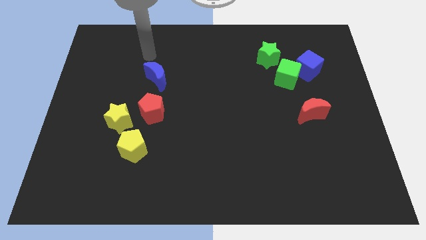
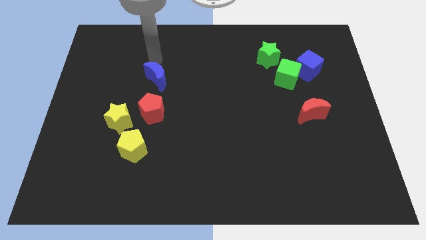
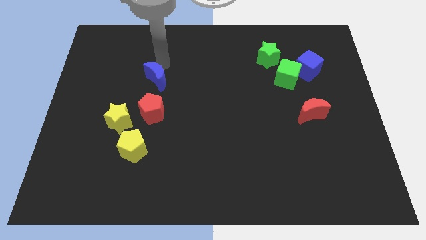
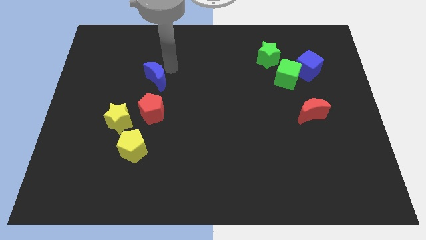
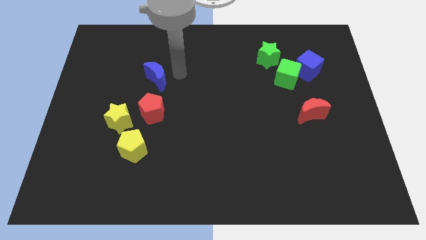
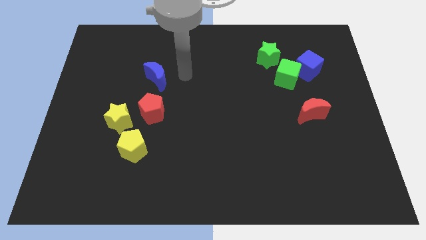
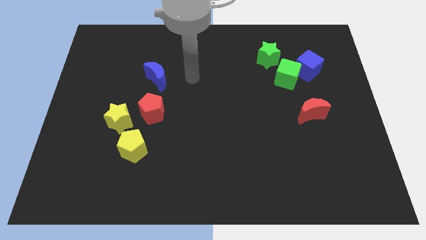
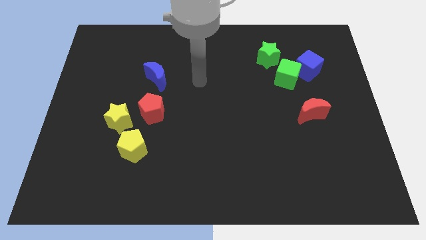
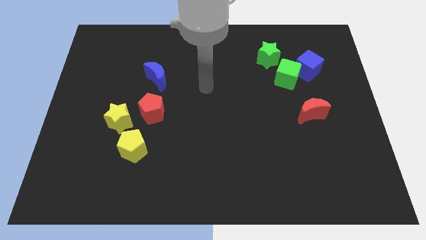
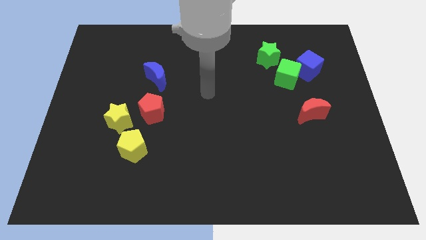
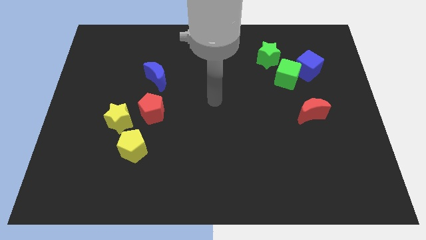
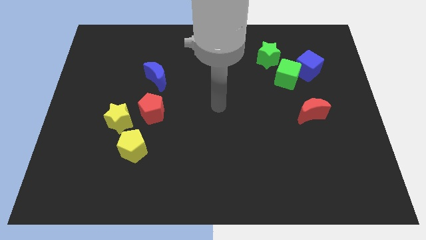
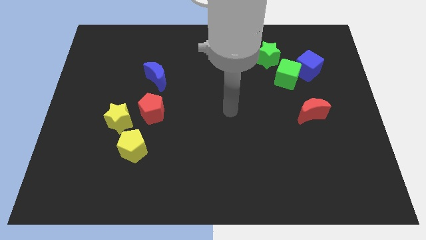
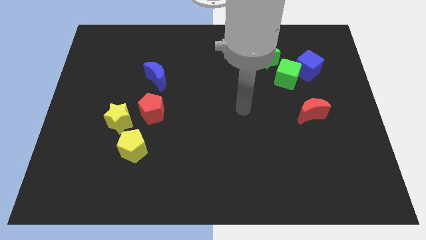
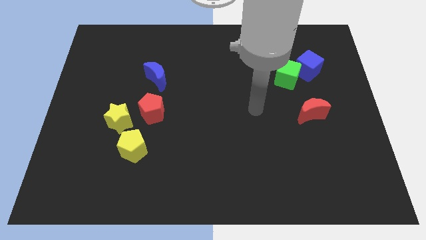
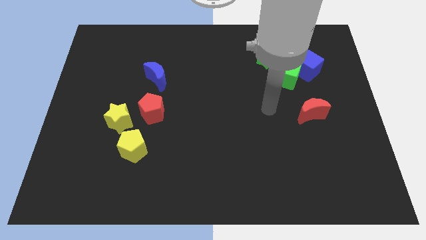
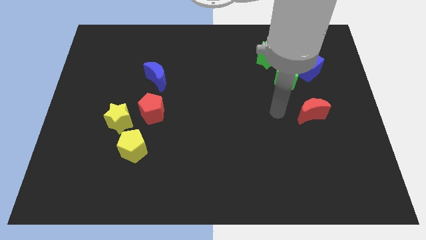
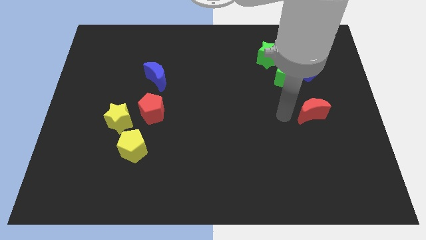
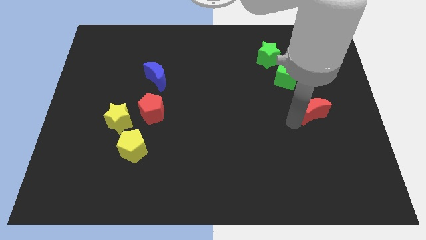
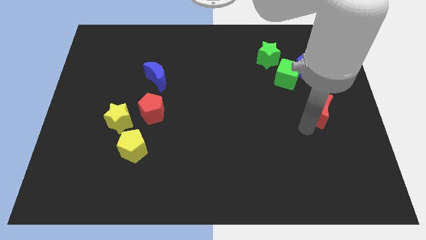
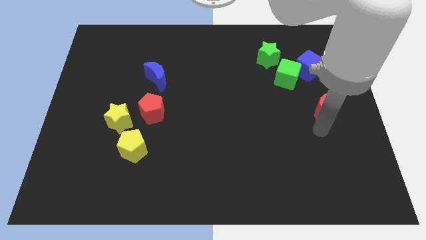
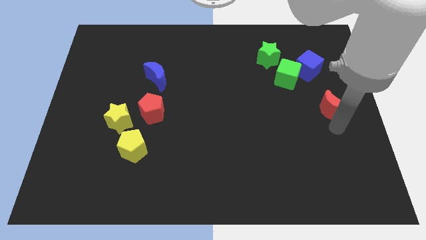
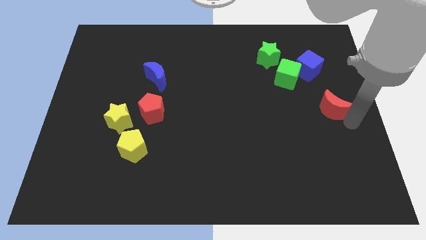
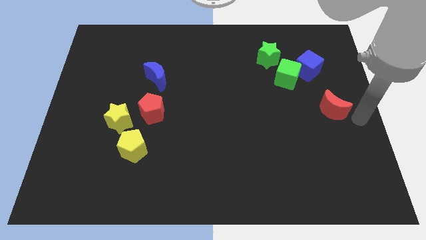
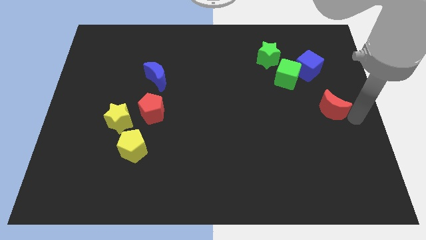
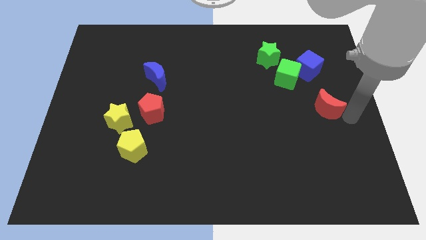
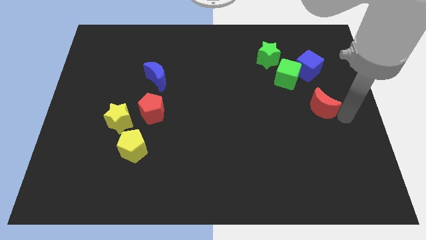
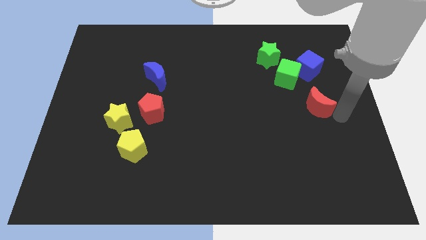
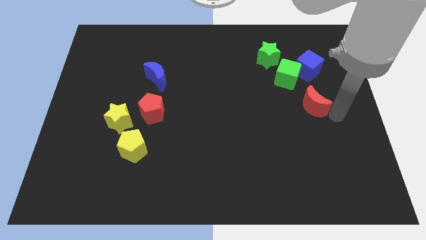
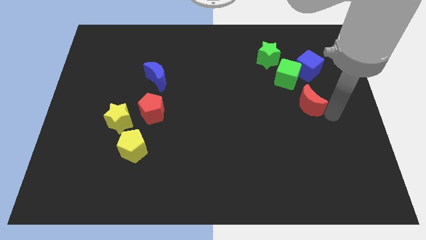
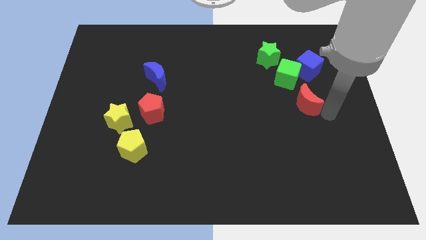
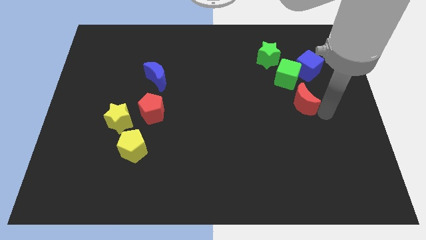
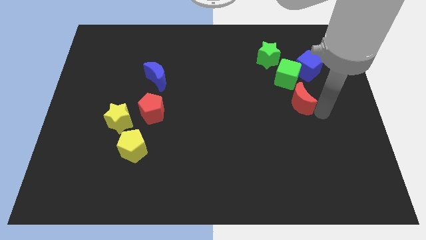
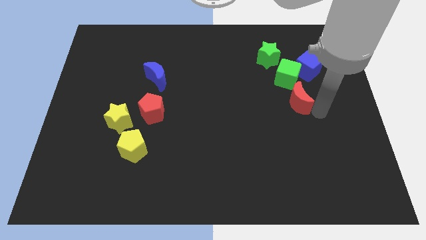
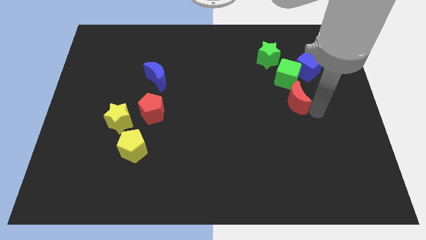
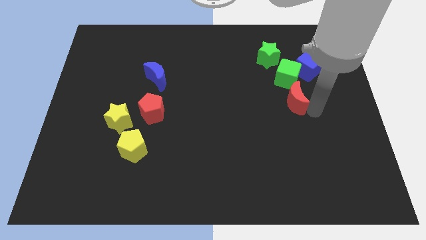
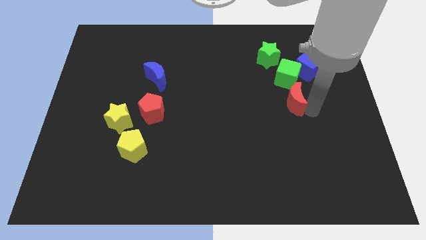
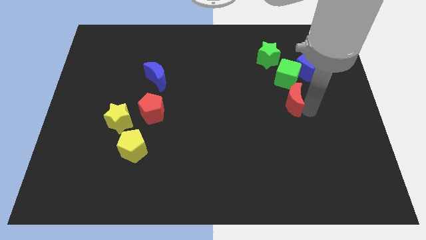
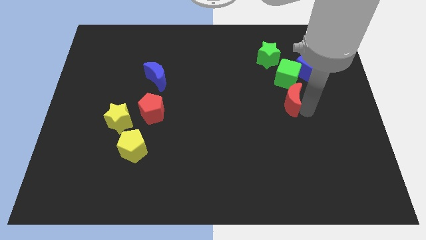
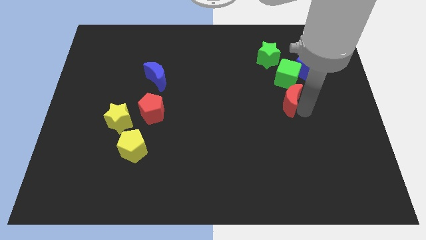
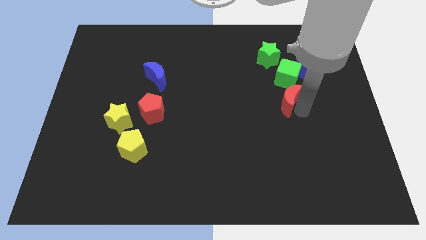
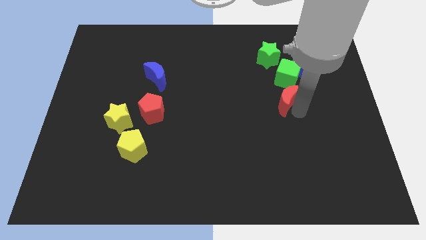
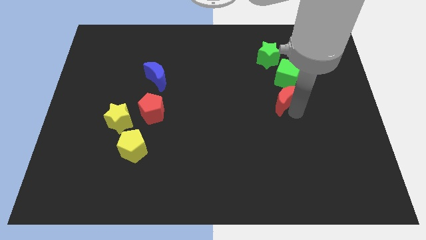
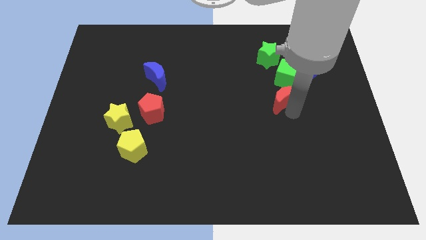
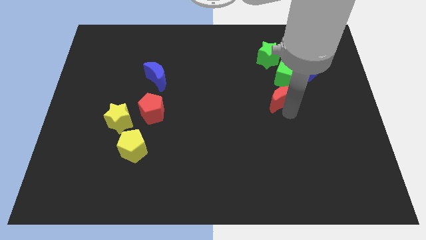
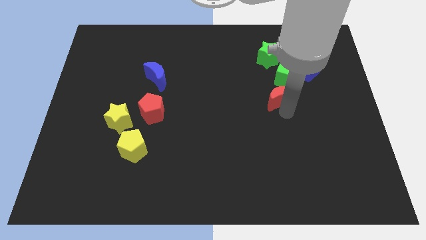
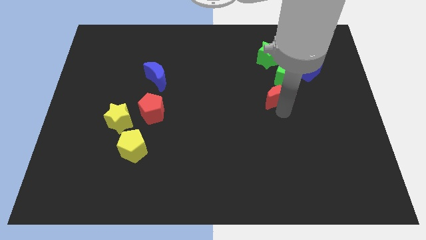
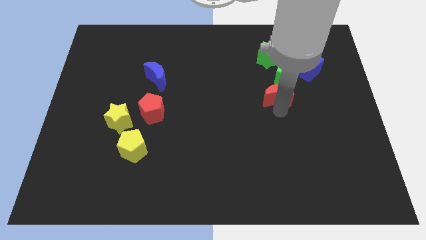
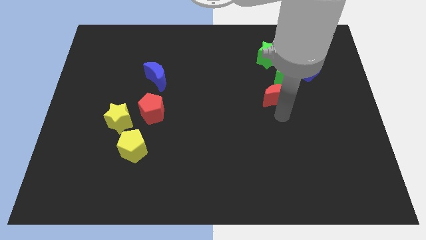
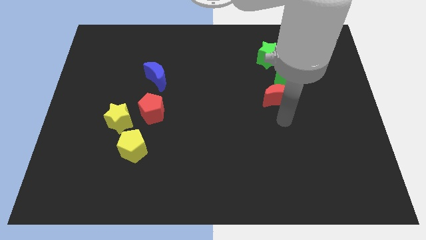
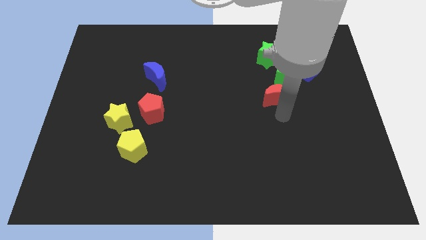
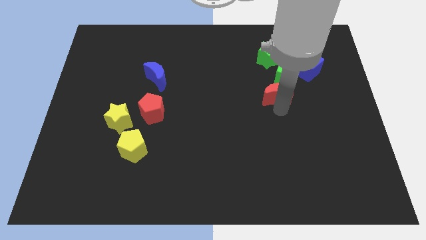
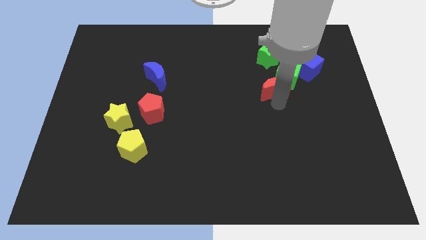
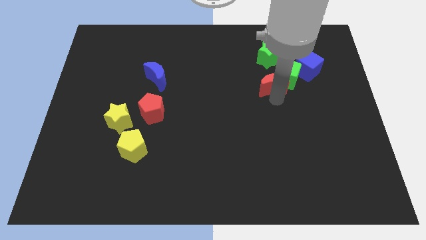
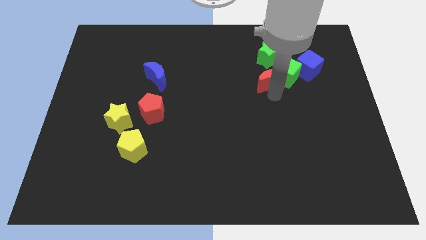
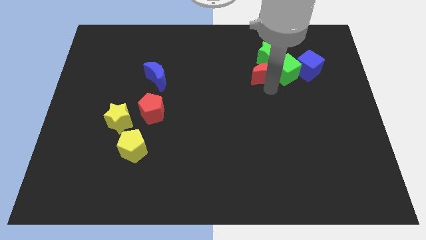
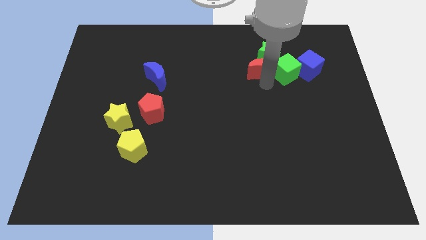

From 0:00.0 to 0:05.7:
move the red moon towards the green star

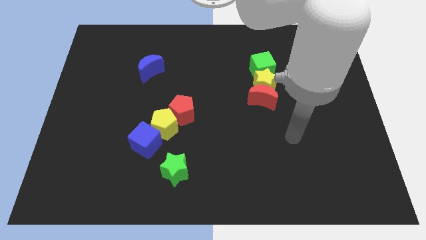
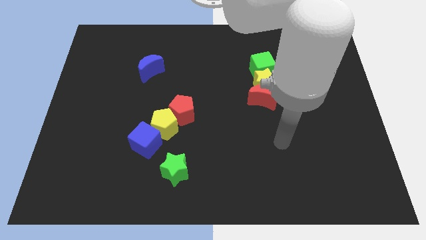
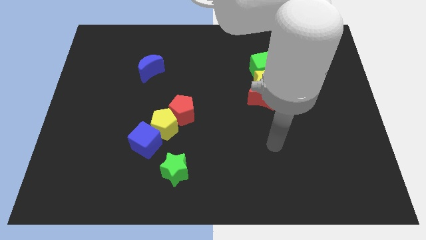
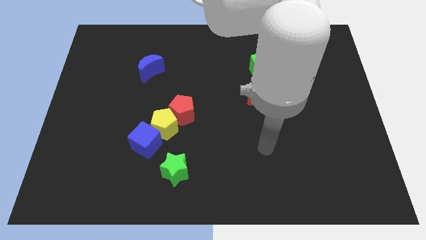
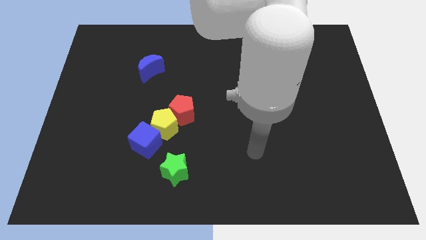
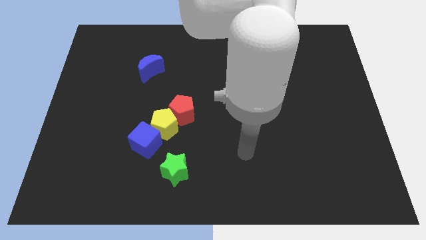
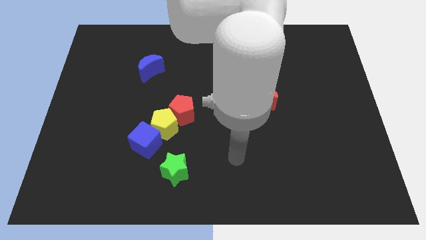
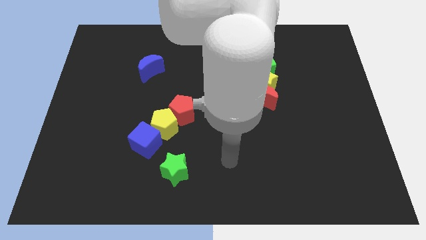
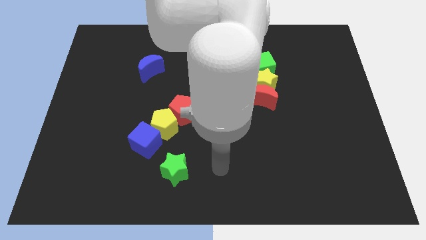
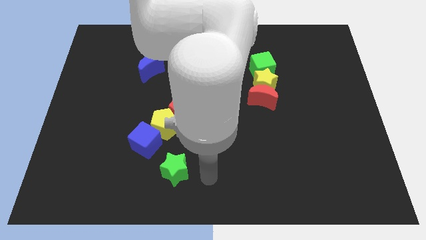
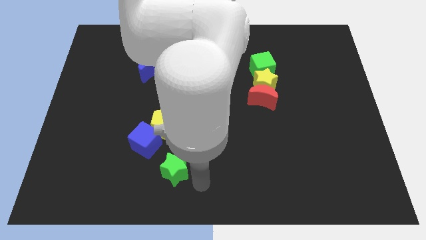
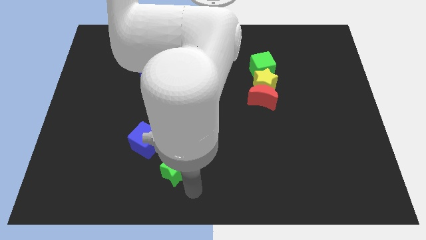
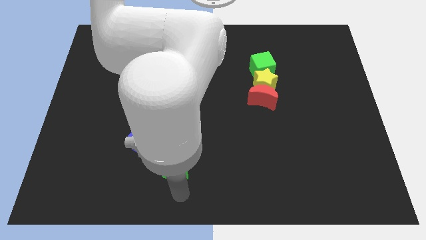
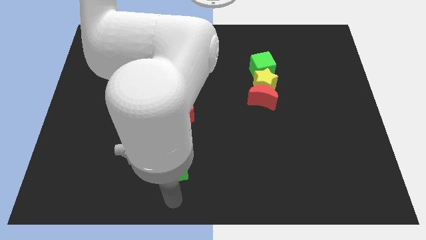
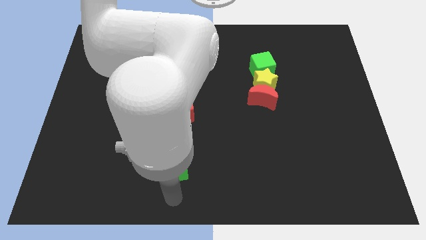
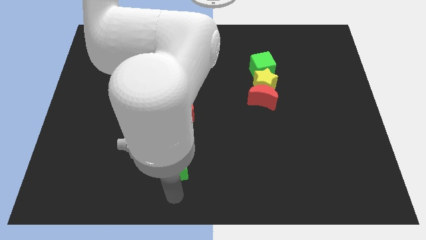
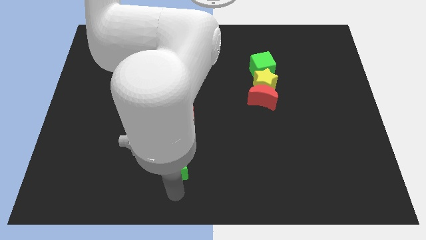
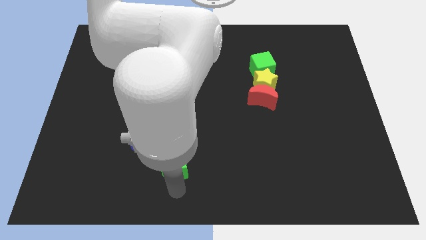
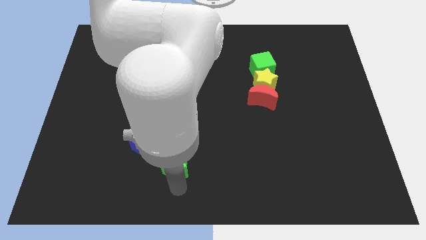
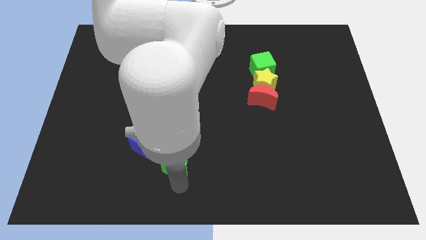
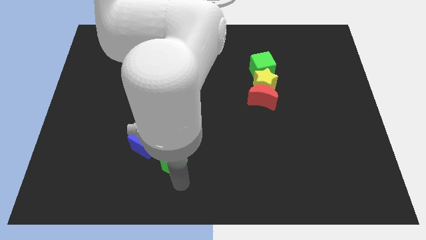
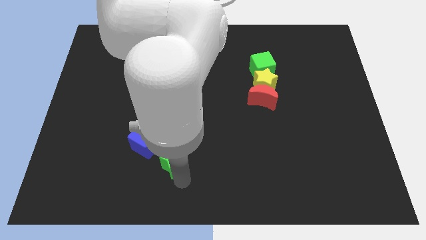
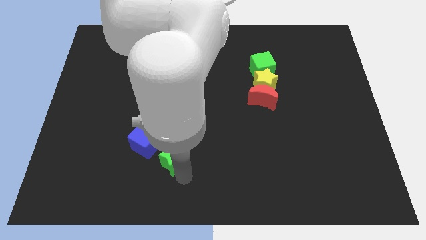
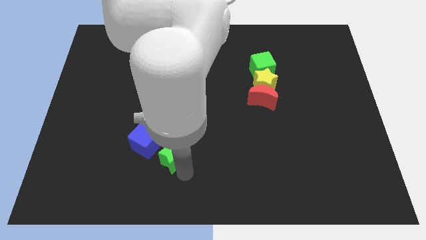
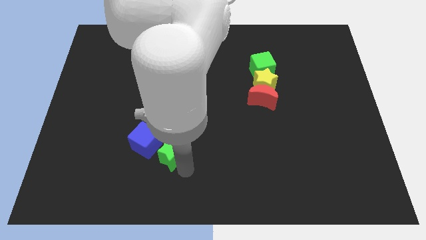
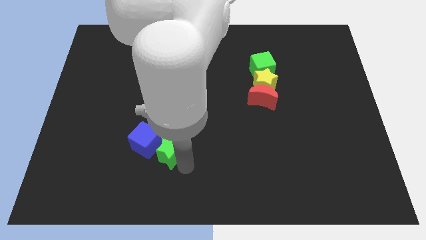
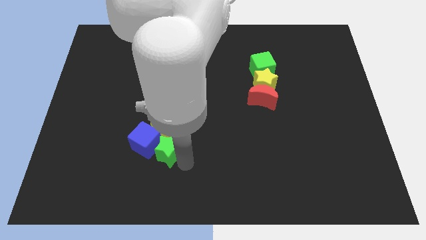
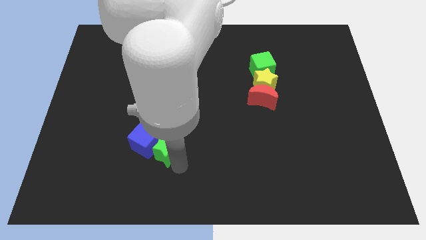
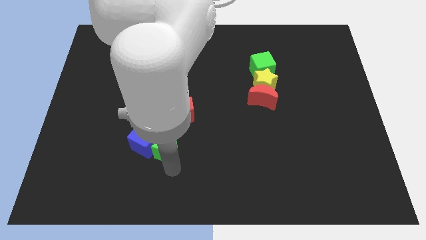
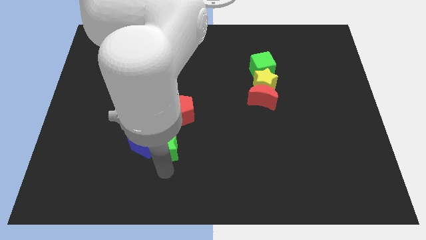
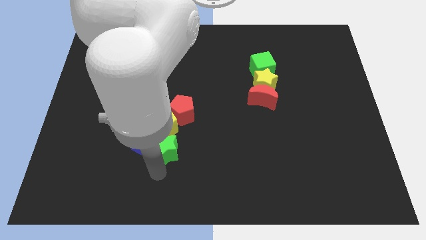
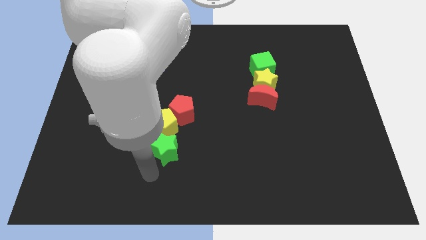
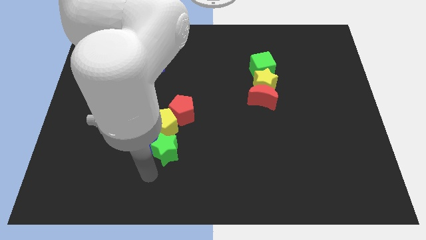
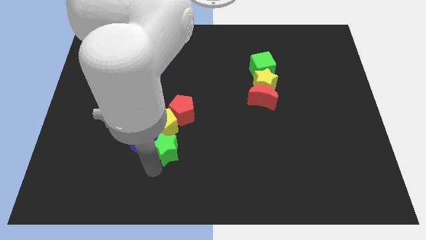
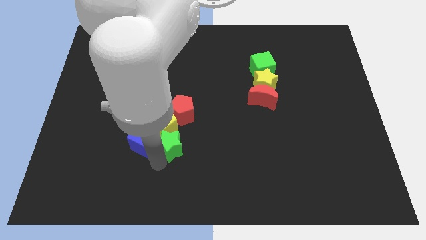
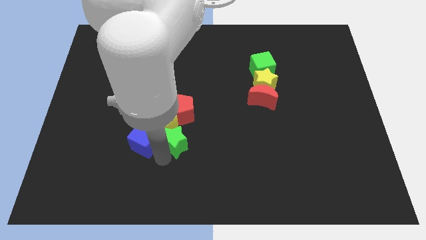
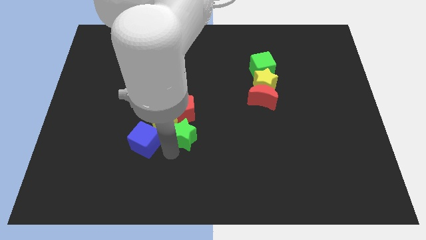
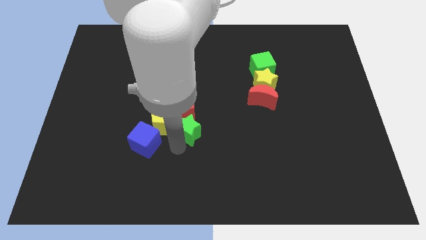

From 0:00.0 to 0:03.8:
move the green star close to the red pentagon
